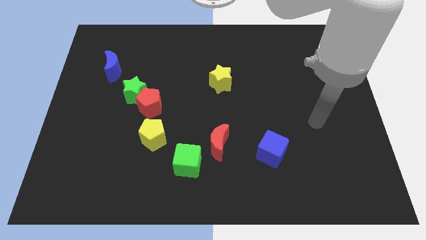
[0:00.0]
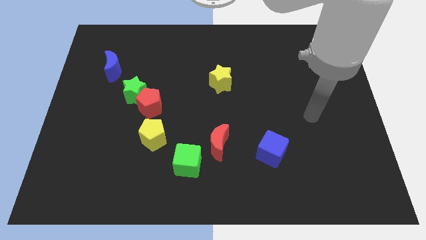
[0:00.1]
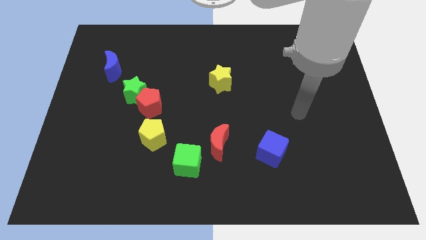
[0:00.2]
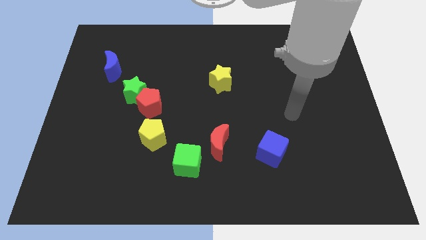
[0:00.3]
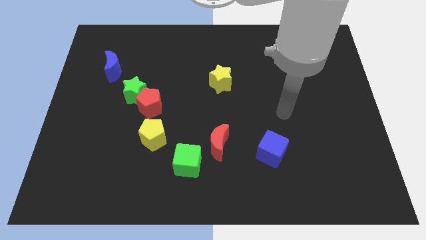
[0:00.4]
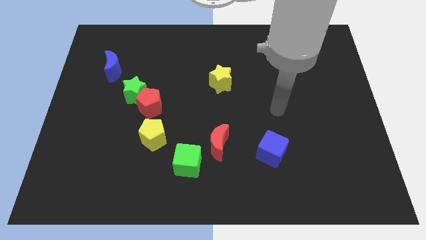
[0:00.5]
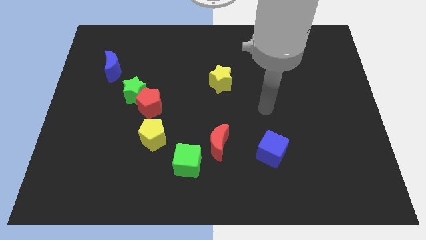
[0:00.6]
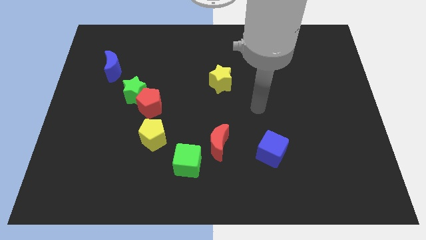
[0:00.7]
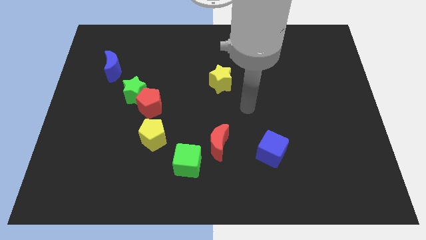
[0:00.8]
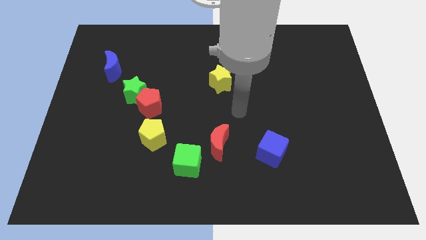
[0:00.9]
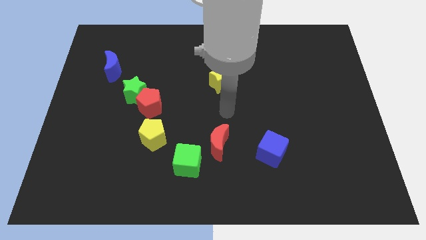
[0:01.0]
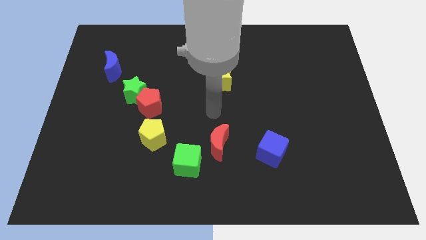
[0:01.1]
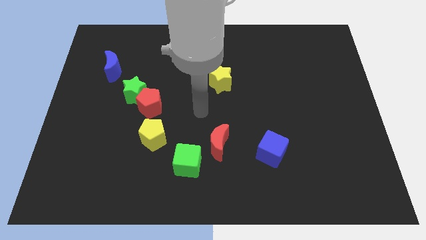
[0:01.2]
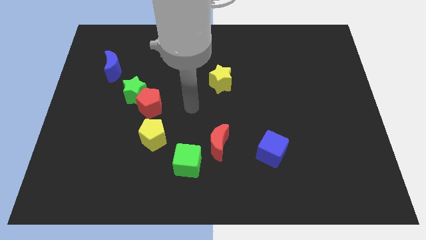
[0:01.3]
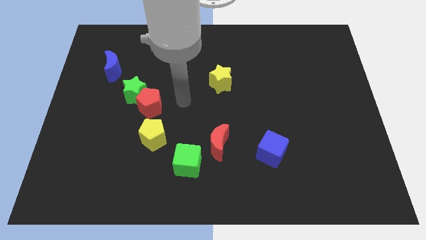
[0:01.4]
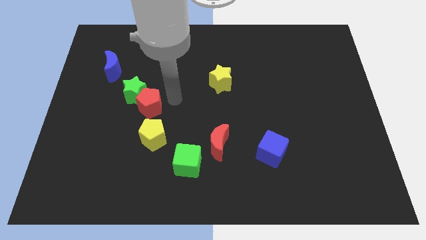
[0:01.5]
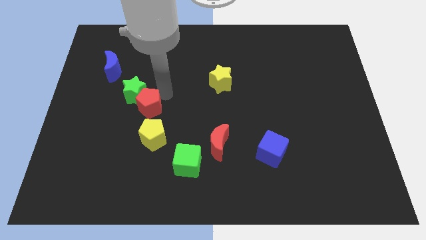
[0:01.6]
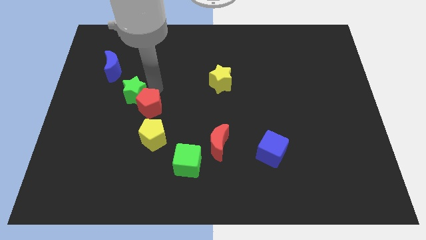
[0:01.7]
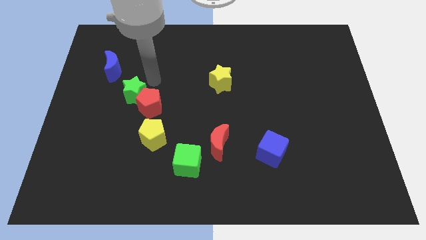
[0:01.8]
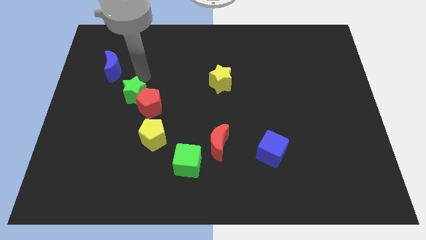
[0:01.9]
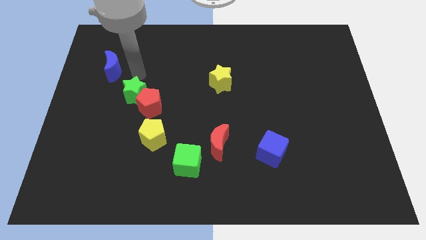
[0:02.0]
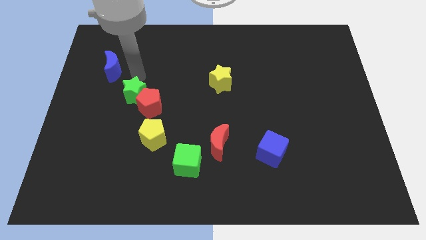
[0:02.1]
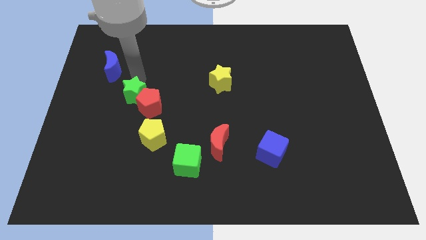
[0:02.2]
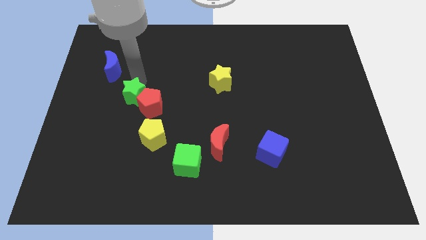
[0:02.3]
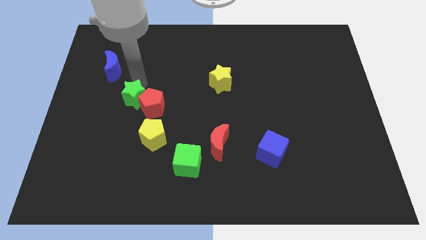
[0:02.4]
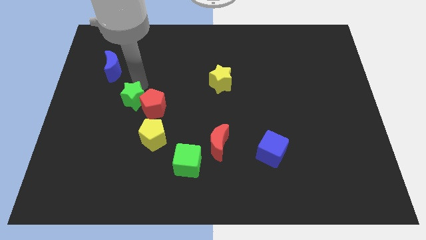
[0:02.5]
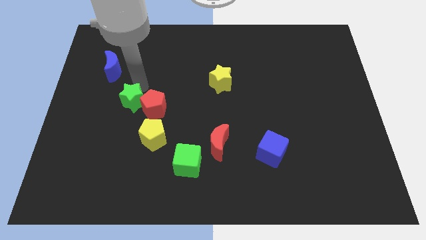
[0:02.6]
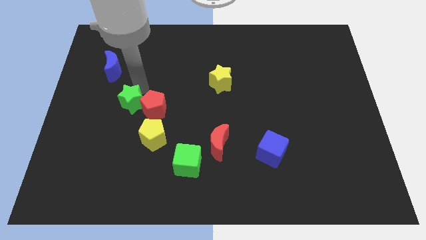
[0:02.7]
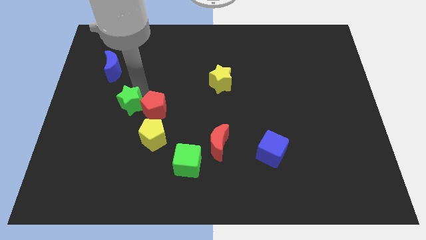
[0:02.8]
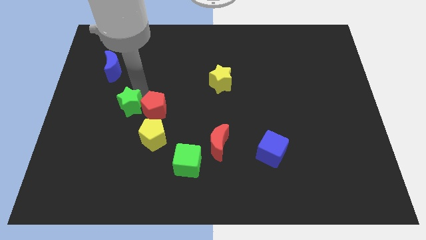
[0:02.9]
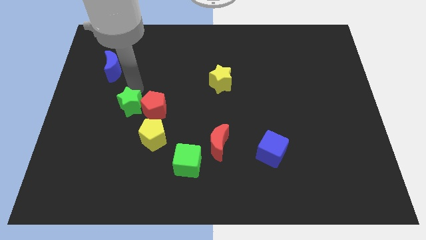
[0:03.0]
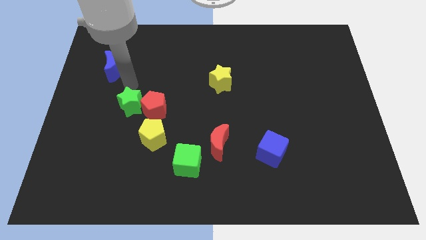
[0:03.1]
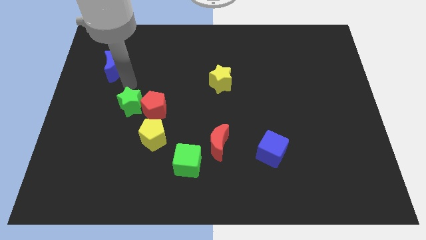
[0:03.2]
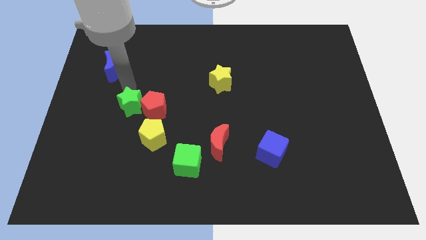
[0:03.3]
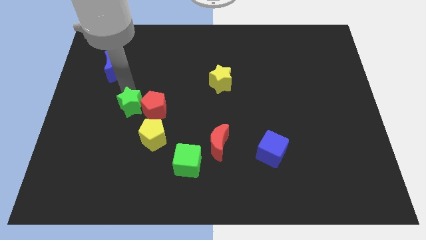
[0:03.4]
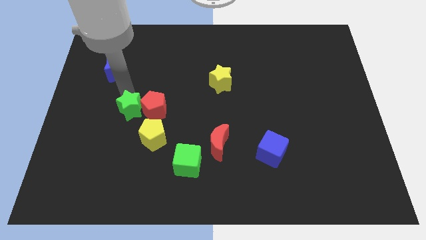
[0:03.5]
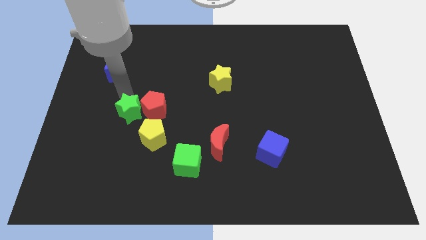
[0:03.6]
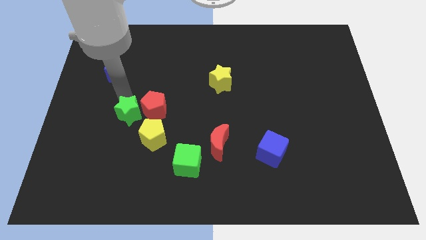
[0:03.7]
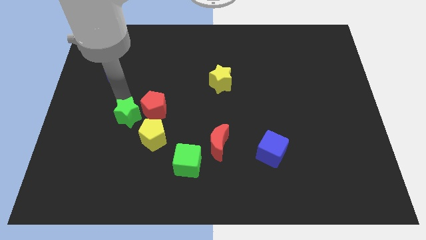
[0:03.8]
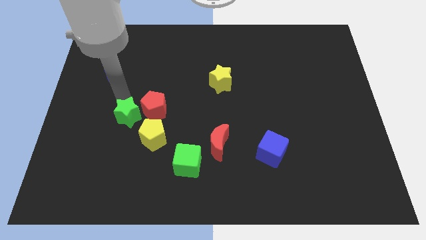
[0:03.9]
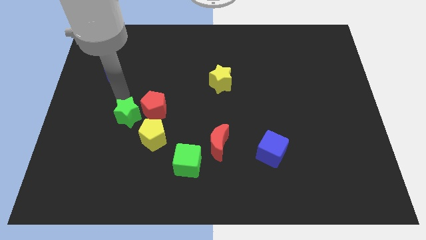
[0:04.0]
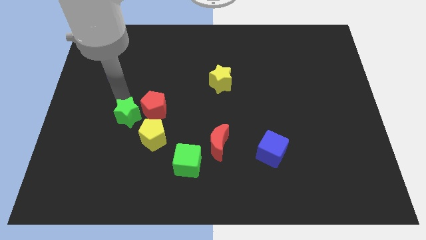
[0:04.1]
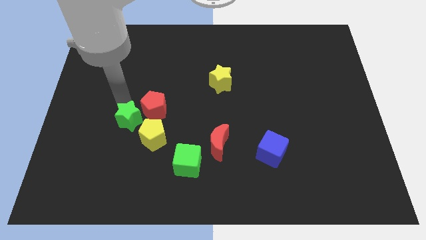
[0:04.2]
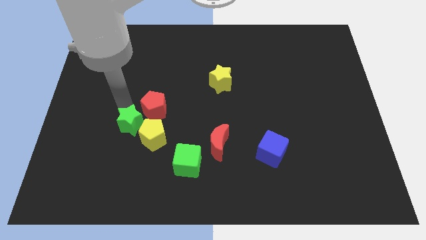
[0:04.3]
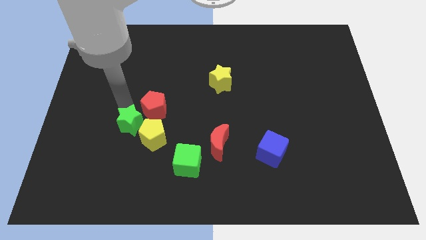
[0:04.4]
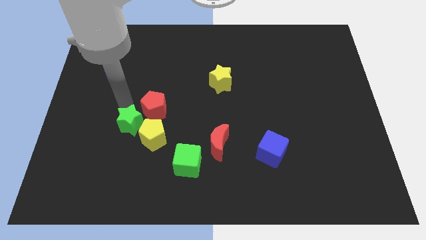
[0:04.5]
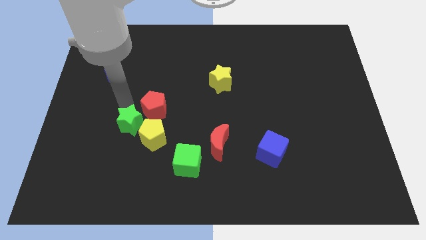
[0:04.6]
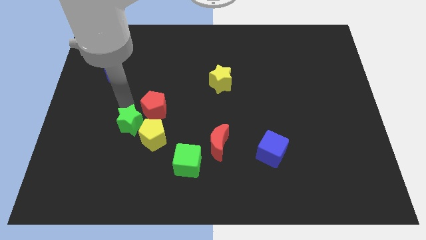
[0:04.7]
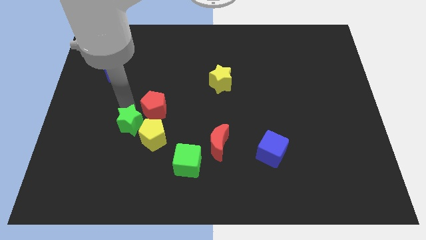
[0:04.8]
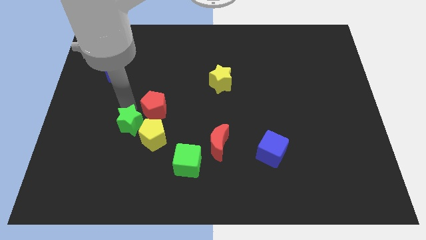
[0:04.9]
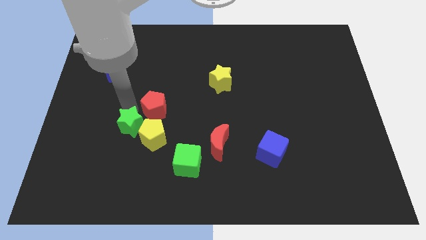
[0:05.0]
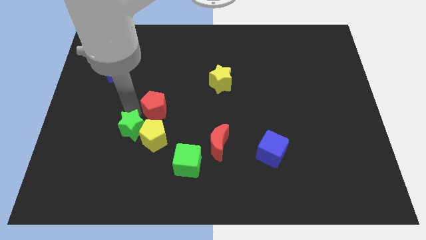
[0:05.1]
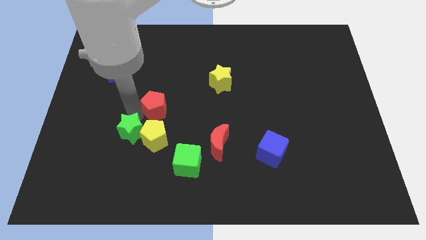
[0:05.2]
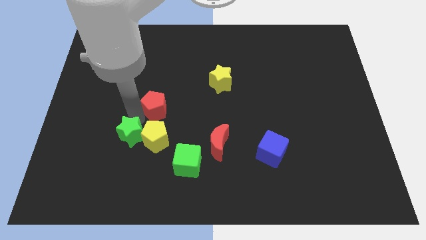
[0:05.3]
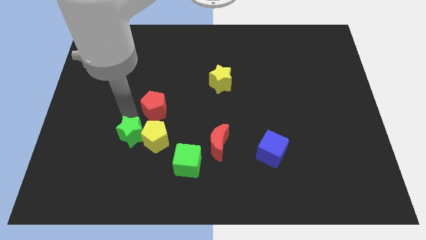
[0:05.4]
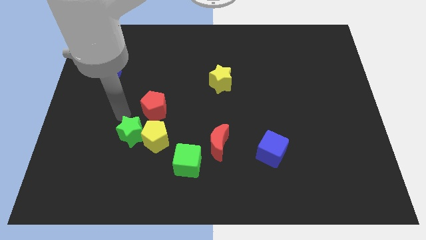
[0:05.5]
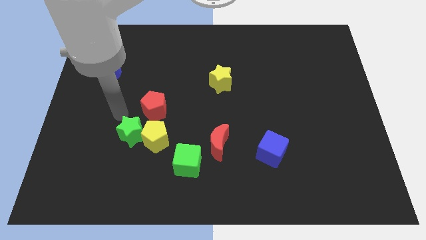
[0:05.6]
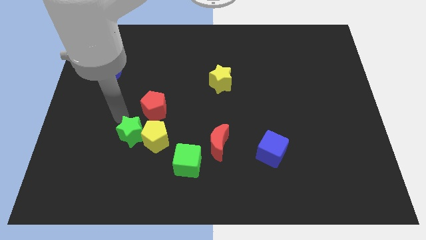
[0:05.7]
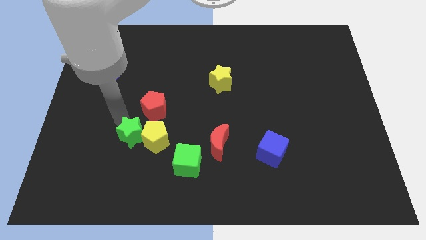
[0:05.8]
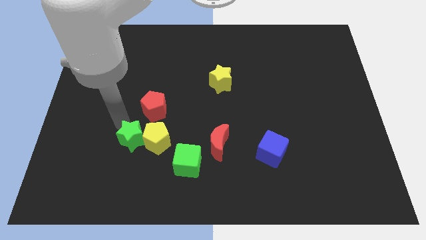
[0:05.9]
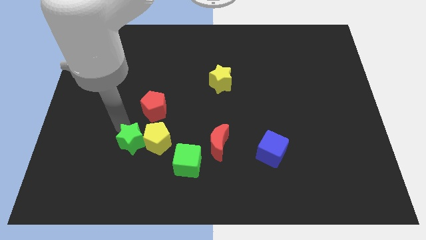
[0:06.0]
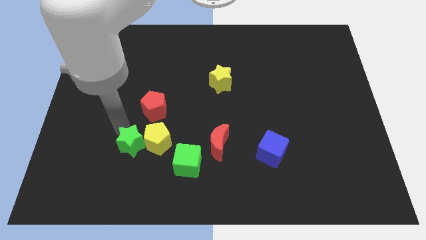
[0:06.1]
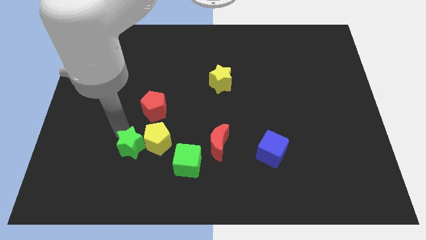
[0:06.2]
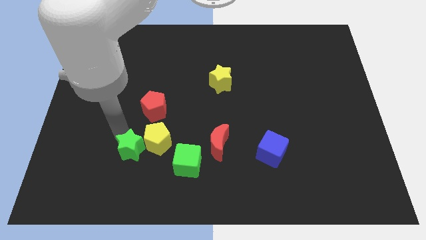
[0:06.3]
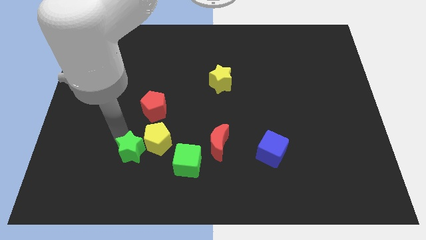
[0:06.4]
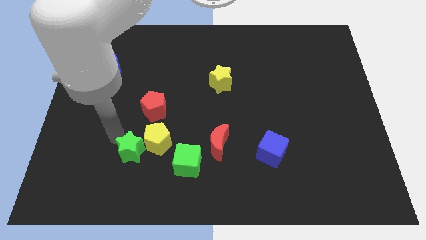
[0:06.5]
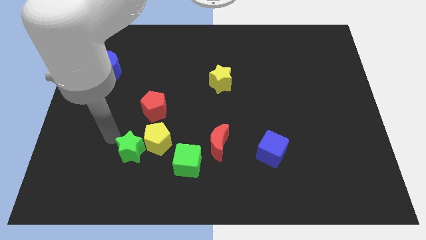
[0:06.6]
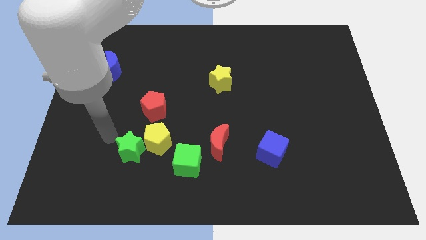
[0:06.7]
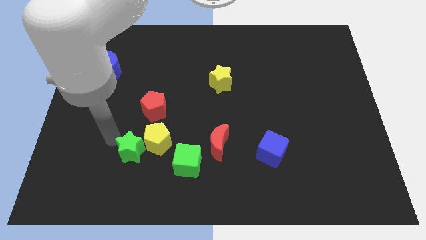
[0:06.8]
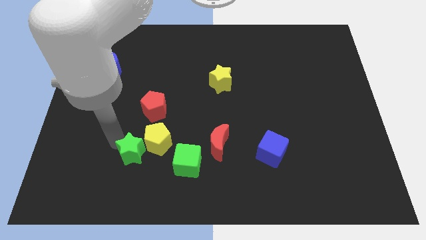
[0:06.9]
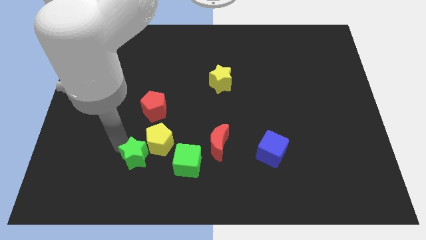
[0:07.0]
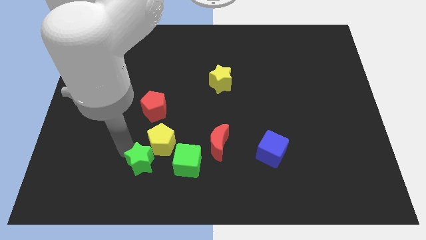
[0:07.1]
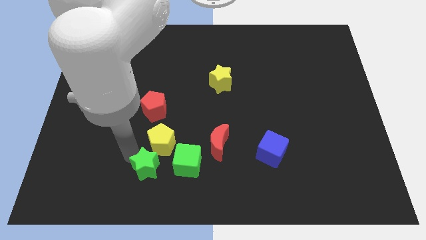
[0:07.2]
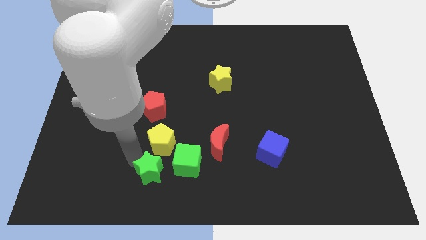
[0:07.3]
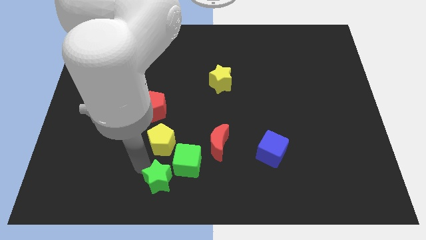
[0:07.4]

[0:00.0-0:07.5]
push the green star to the bottom side

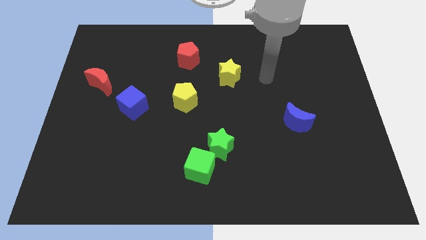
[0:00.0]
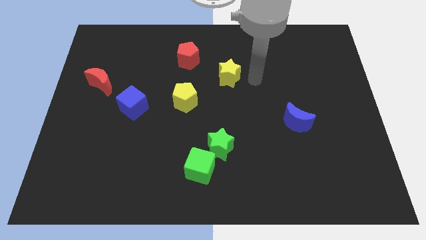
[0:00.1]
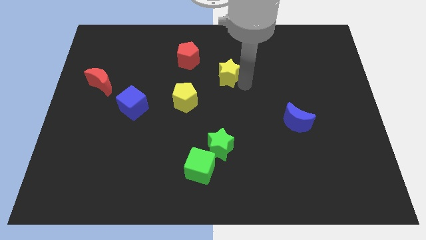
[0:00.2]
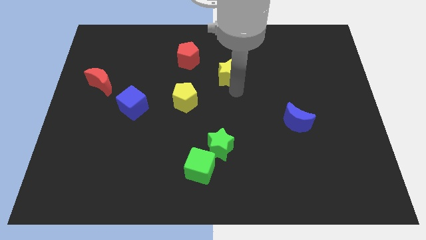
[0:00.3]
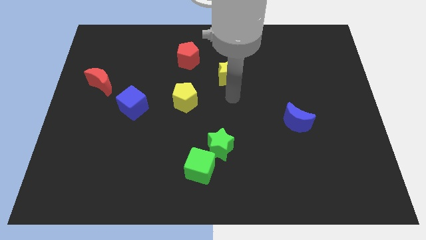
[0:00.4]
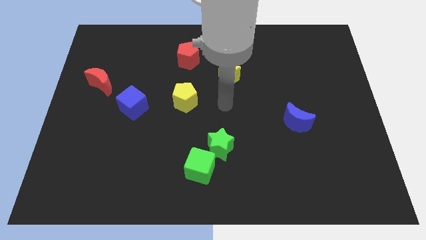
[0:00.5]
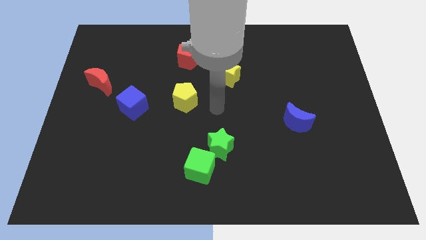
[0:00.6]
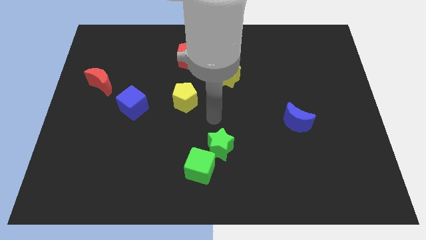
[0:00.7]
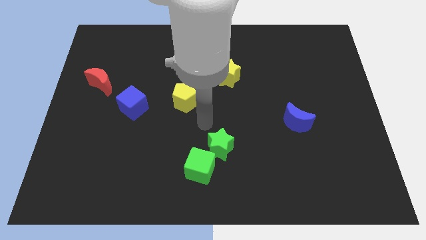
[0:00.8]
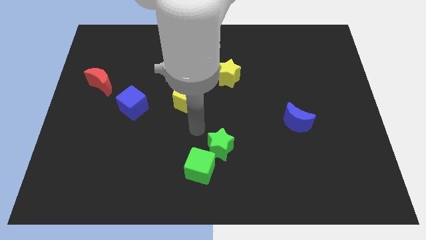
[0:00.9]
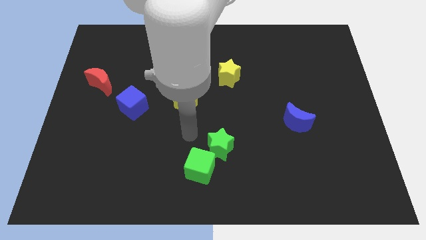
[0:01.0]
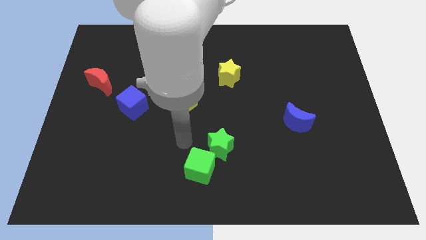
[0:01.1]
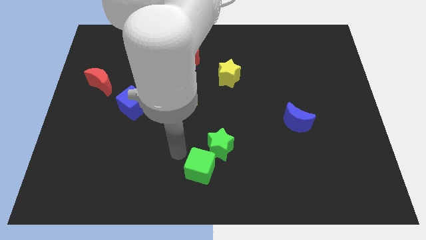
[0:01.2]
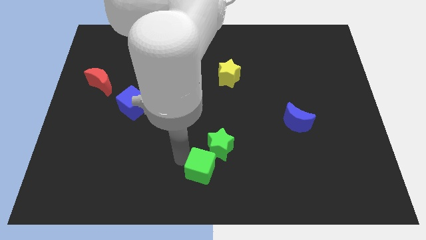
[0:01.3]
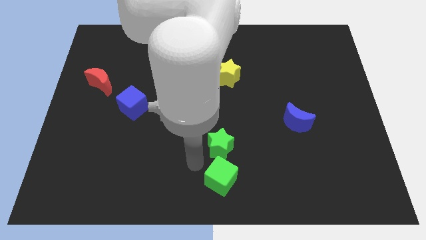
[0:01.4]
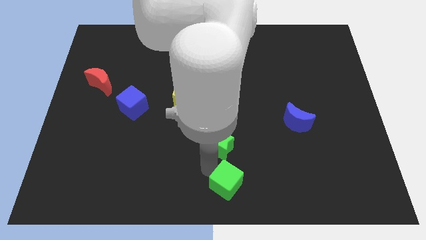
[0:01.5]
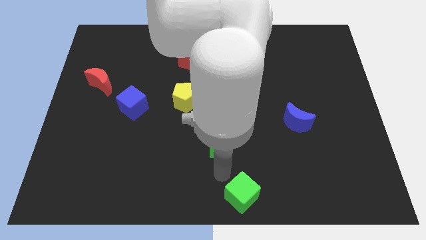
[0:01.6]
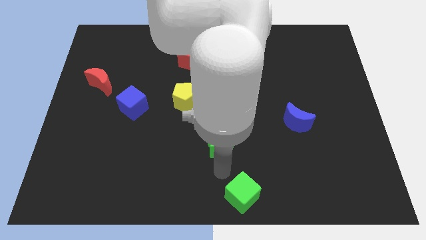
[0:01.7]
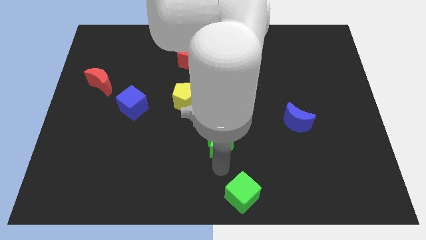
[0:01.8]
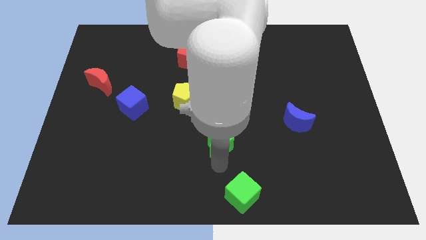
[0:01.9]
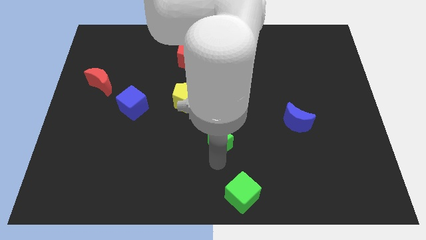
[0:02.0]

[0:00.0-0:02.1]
put the green star to the center of the board
